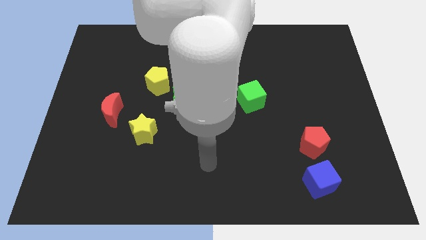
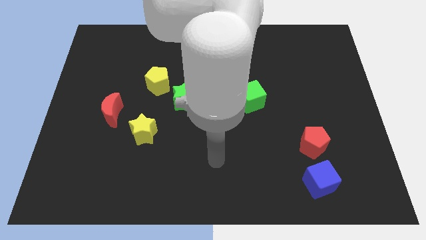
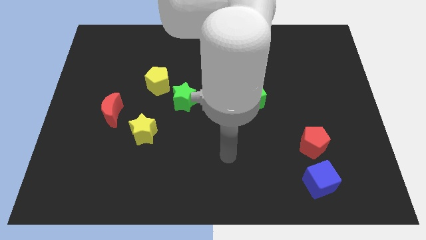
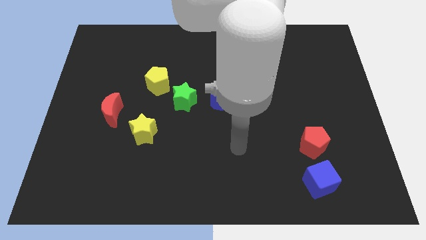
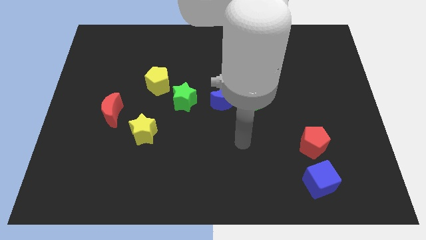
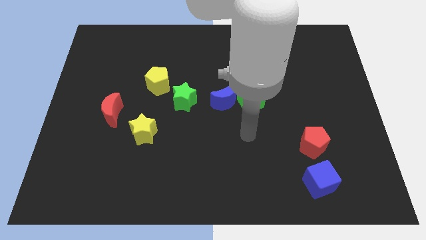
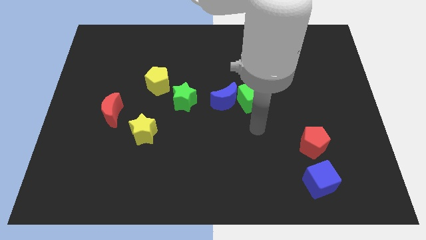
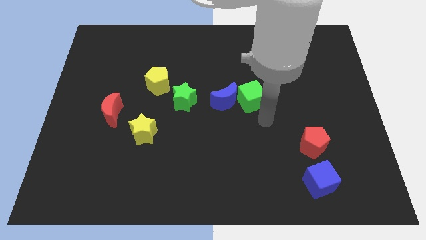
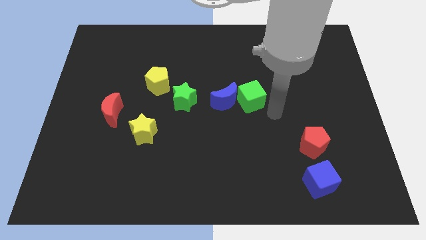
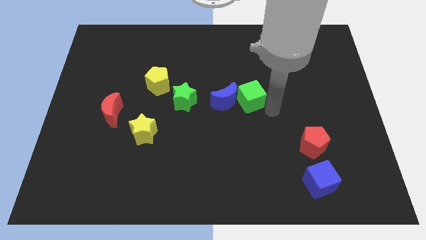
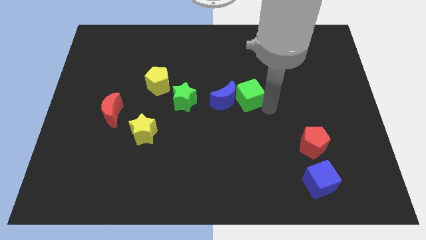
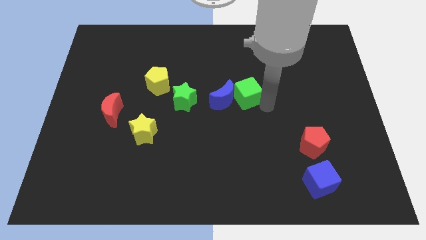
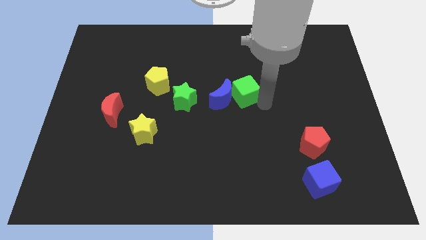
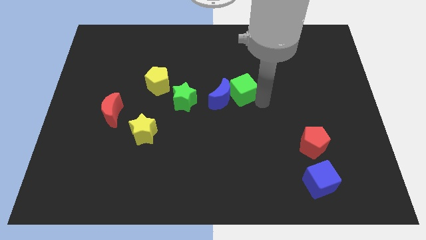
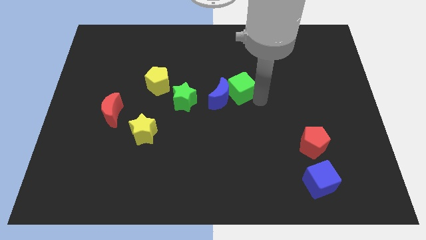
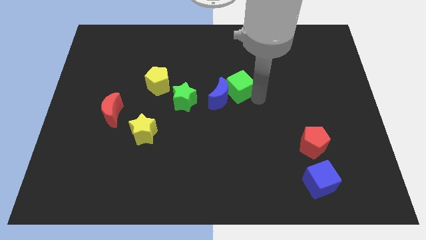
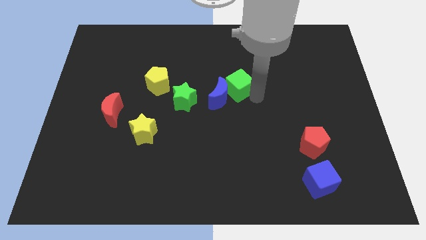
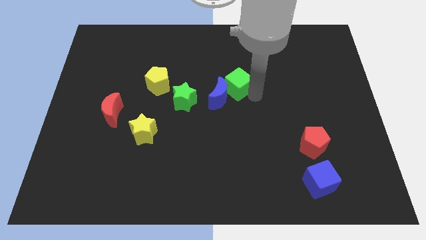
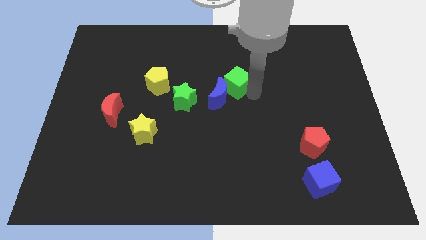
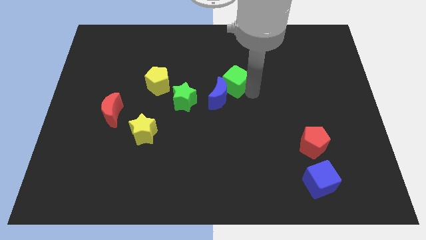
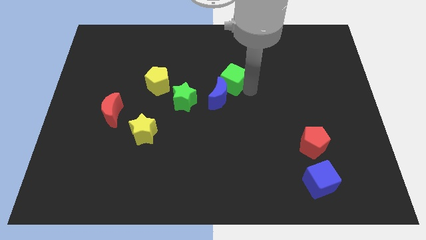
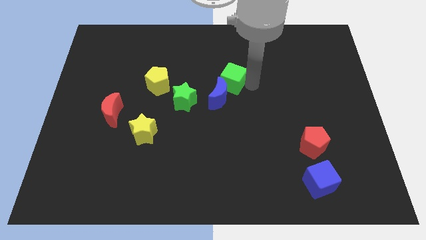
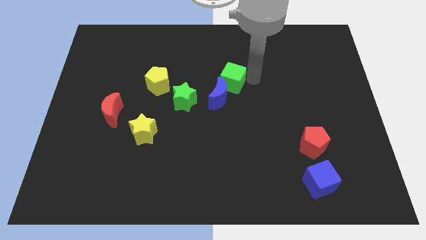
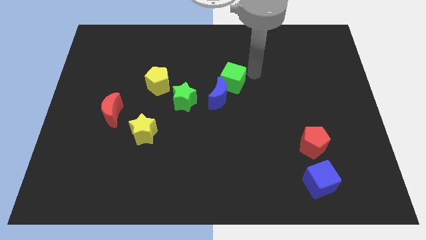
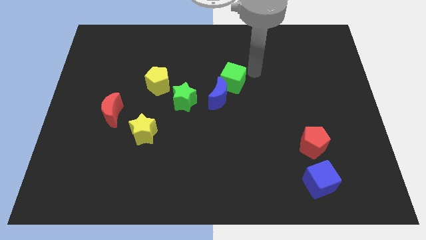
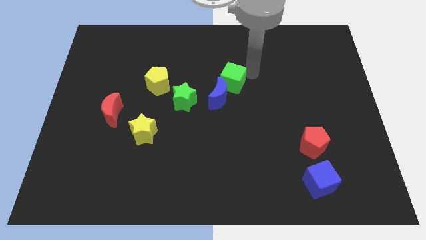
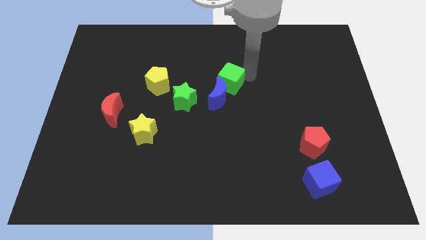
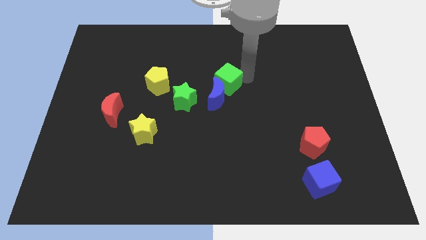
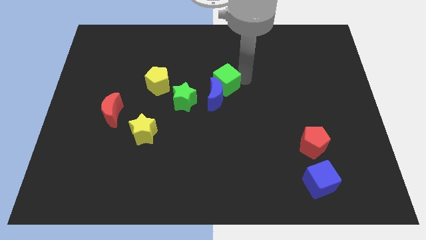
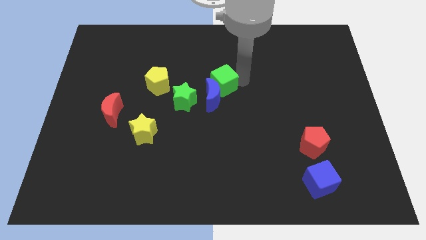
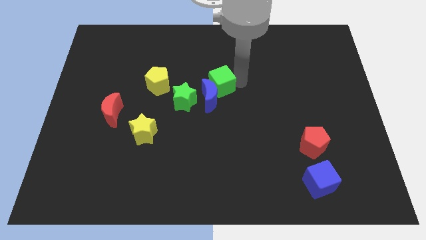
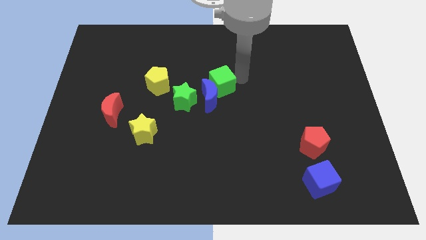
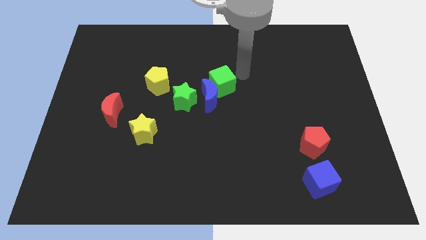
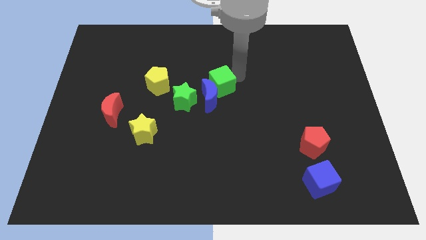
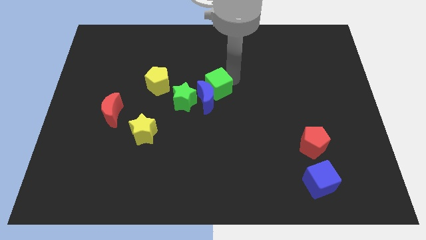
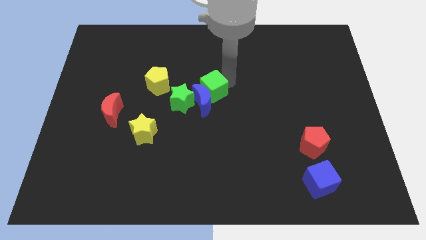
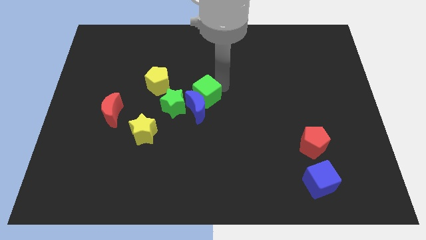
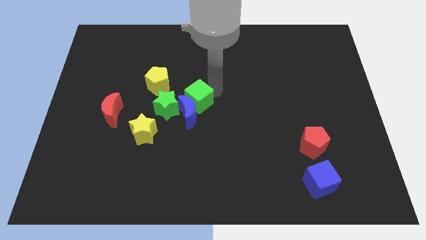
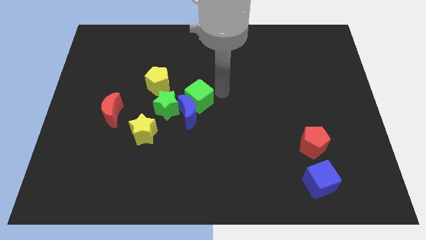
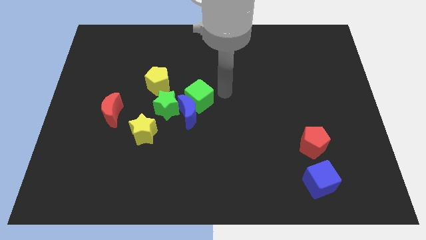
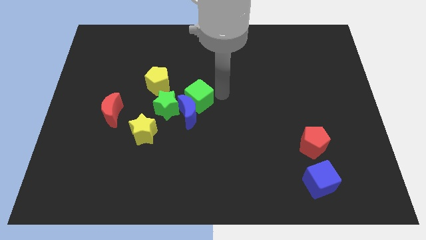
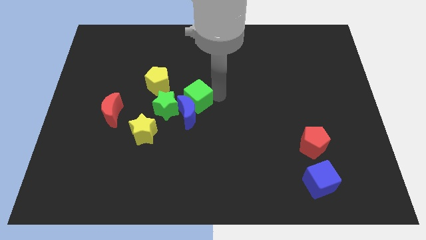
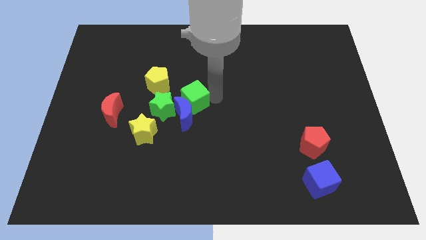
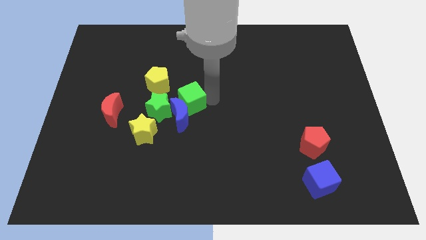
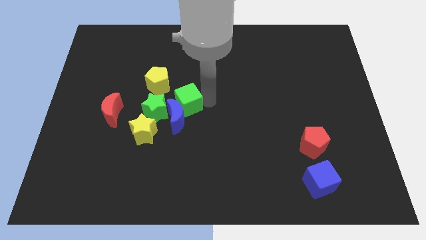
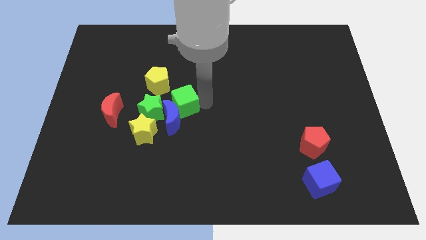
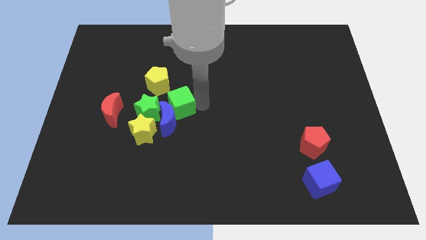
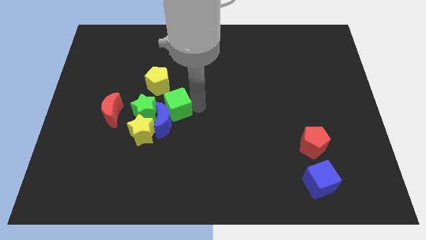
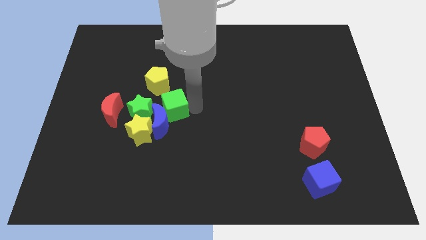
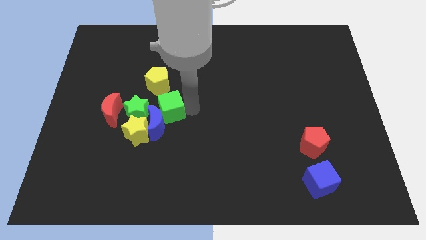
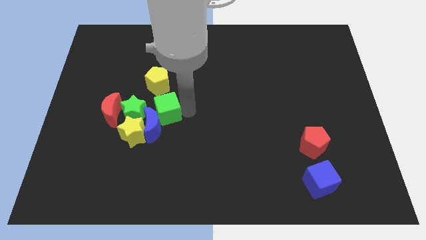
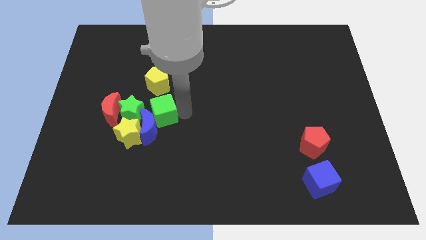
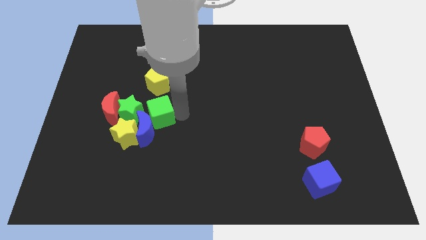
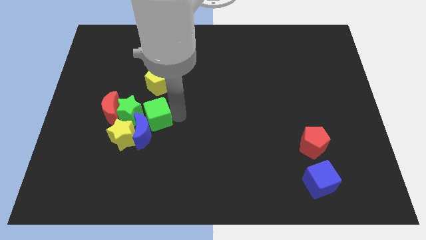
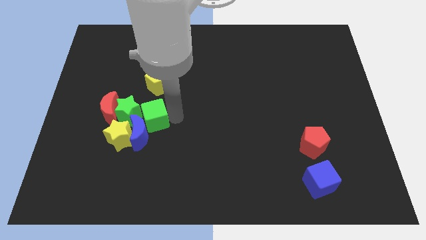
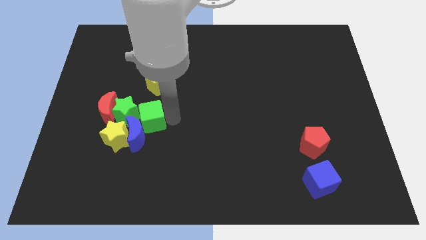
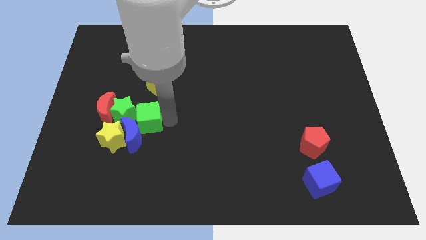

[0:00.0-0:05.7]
move the green cube next to the green star

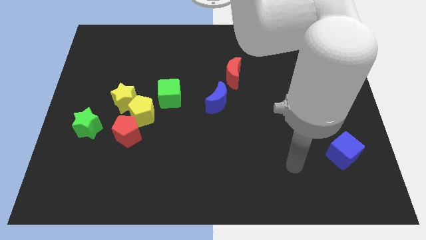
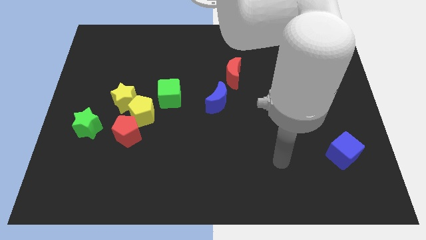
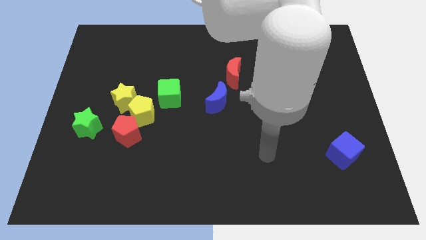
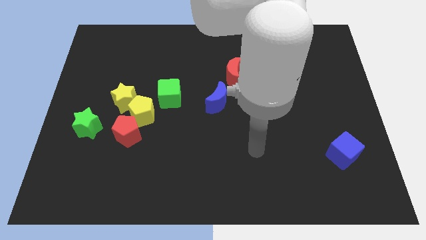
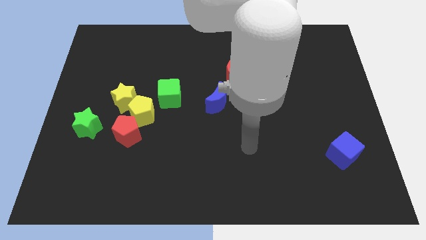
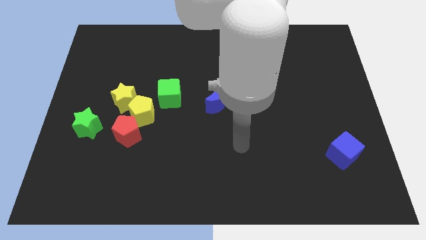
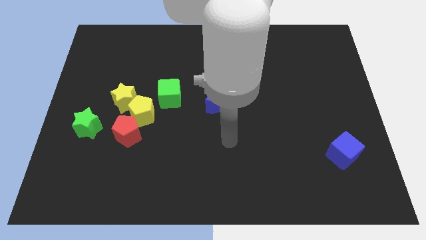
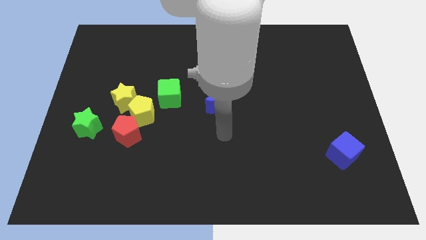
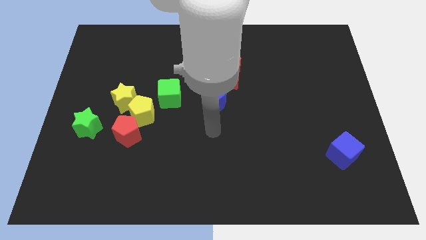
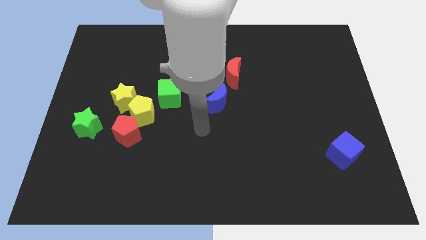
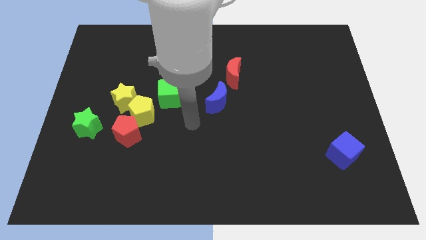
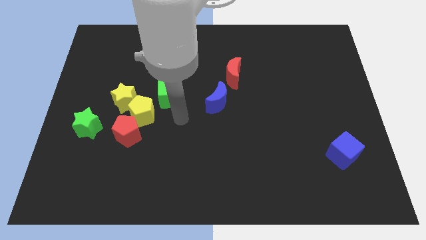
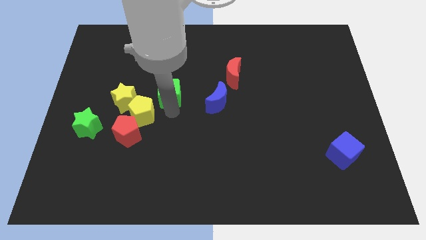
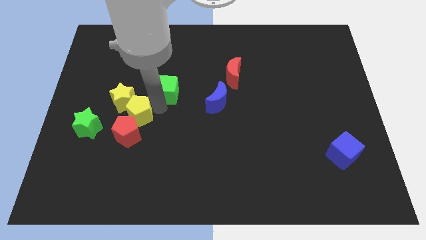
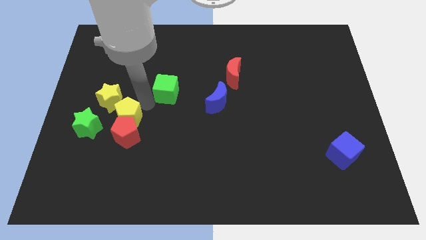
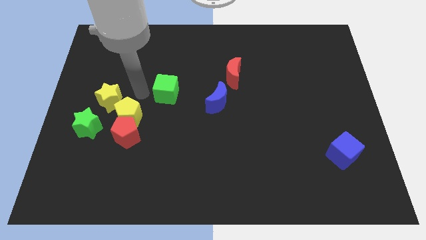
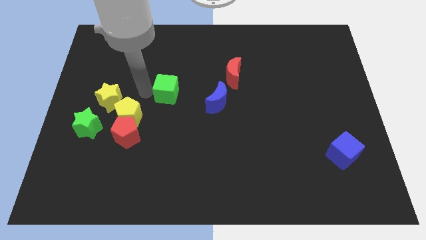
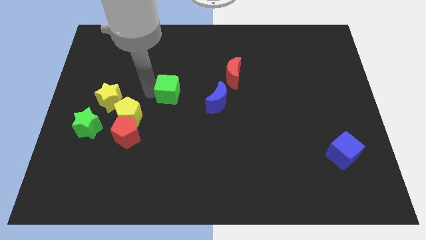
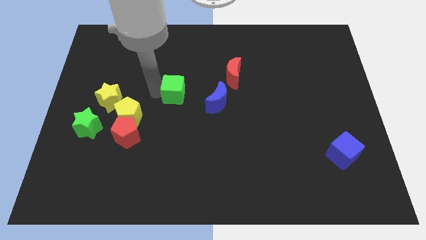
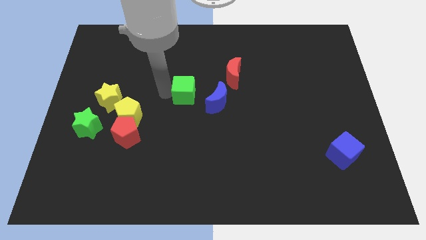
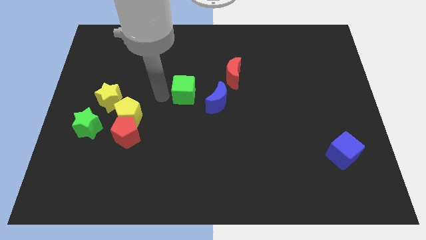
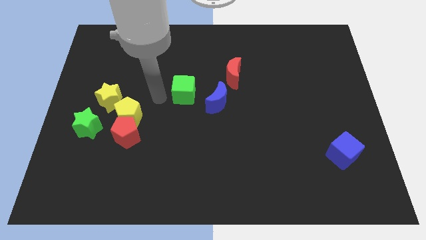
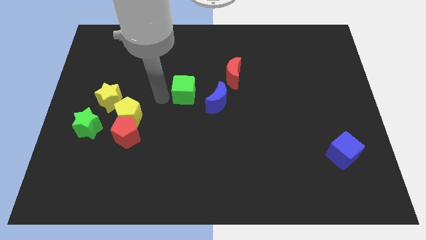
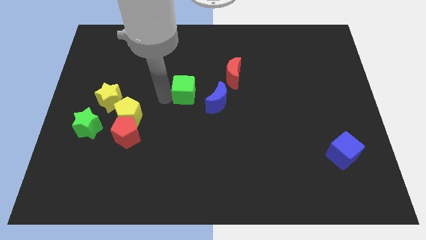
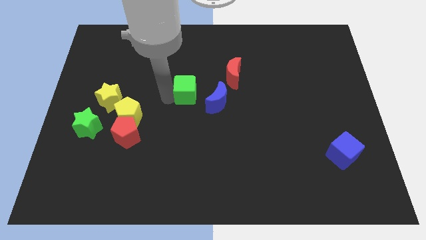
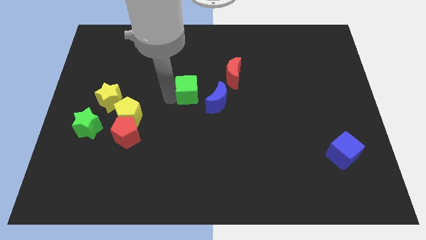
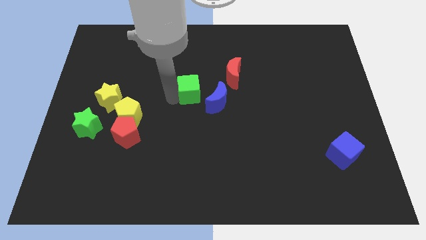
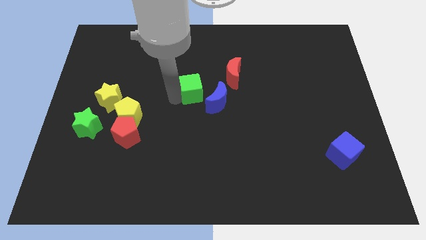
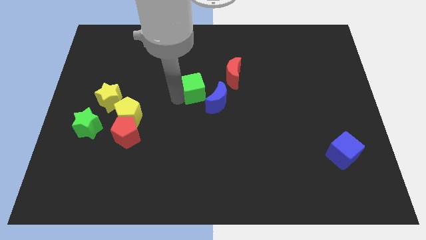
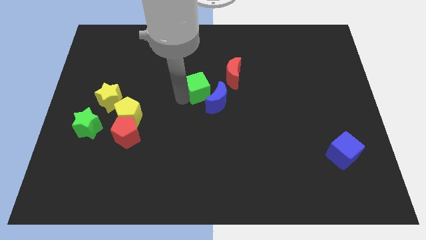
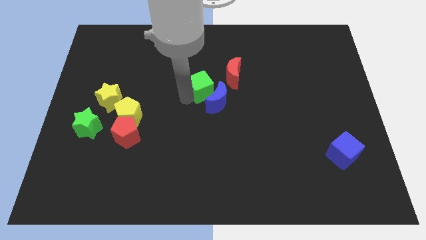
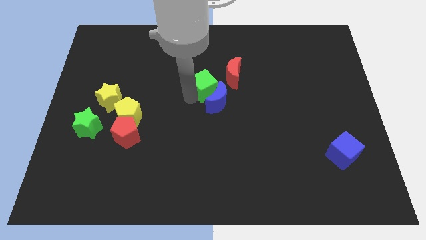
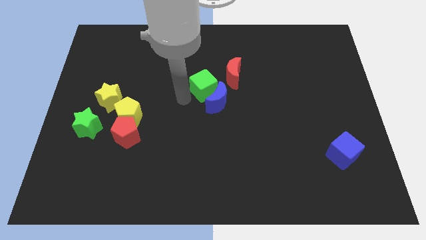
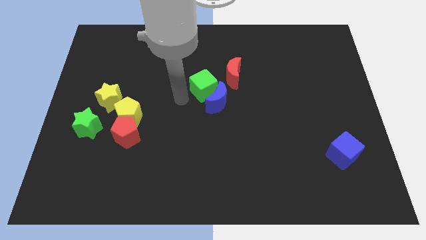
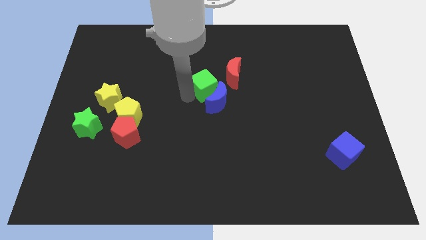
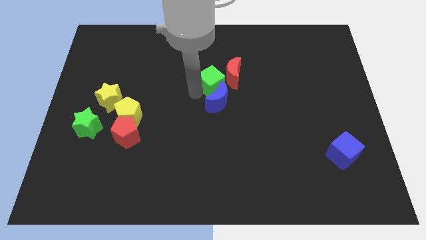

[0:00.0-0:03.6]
slide the green cube close to the red moon
